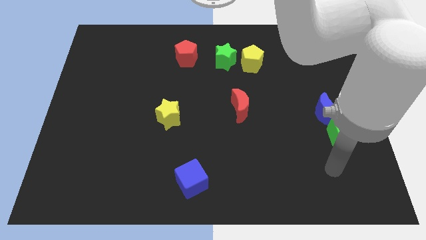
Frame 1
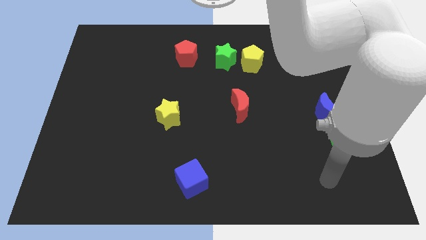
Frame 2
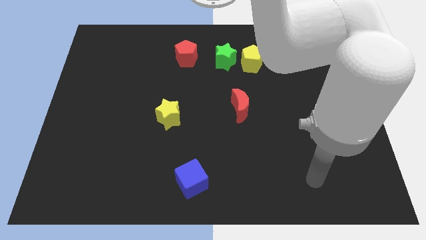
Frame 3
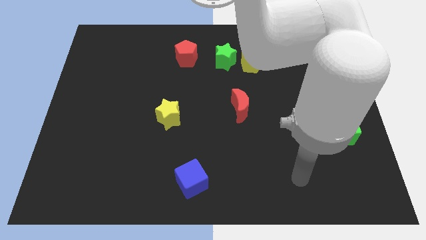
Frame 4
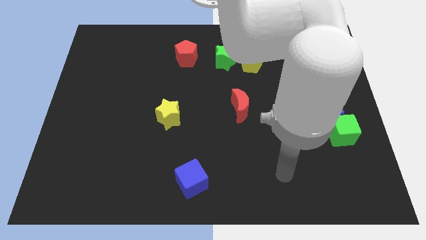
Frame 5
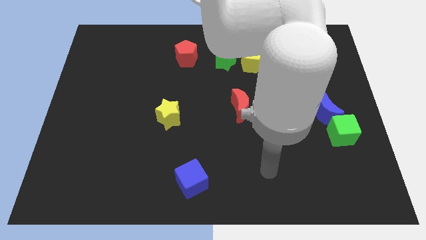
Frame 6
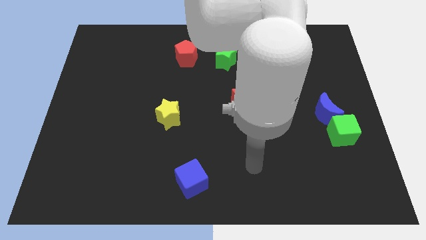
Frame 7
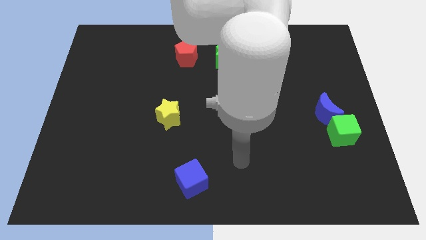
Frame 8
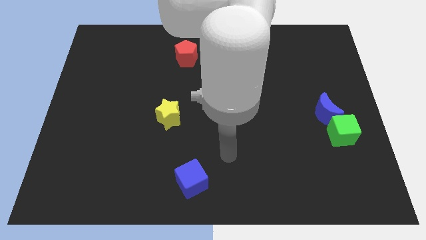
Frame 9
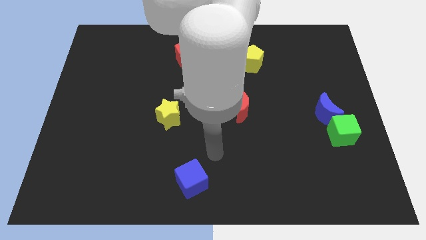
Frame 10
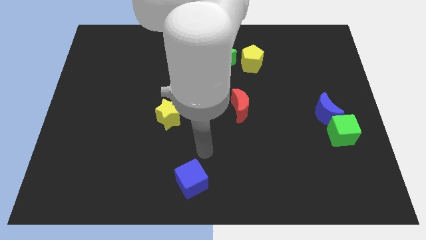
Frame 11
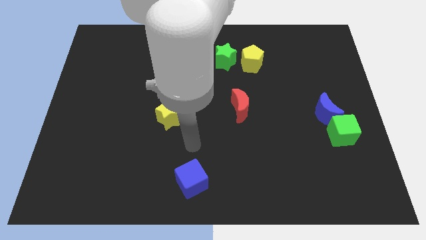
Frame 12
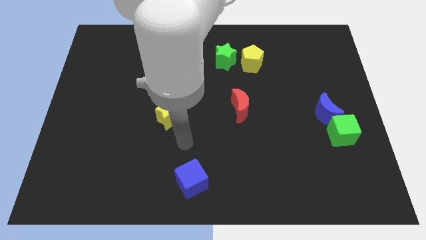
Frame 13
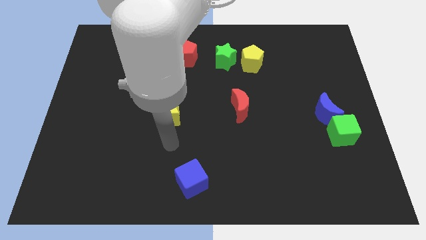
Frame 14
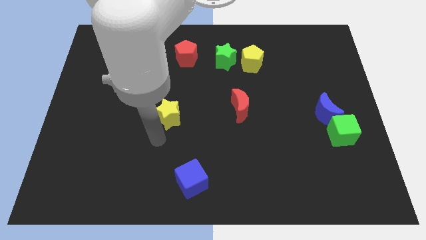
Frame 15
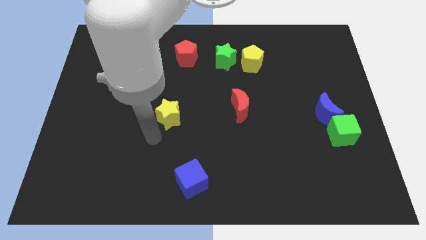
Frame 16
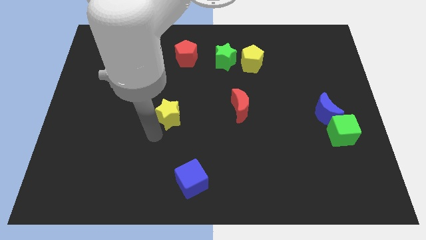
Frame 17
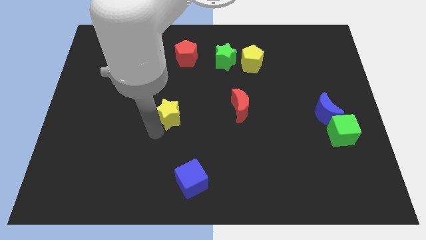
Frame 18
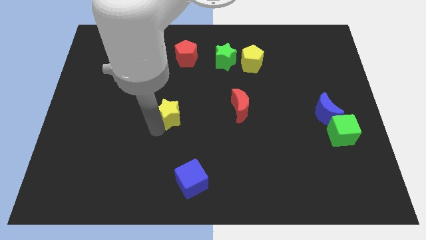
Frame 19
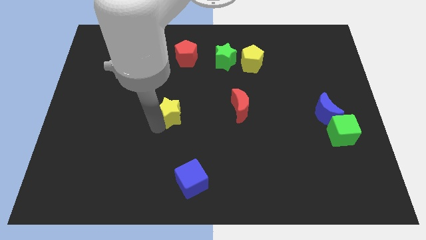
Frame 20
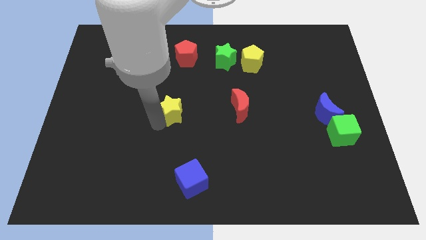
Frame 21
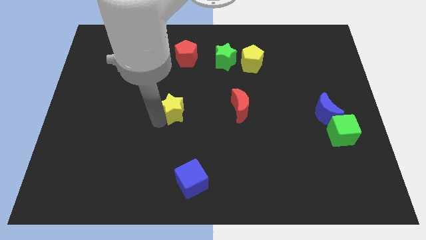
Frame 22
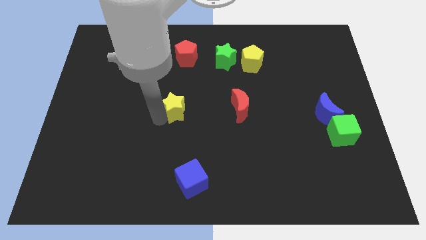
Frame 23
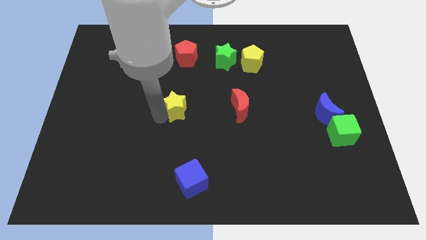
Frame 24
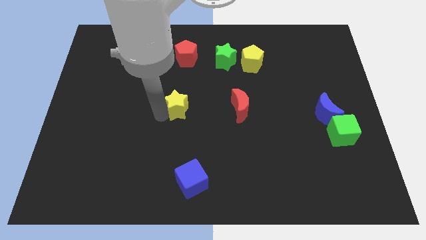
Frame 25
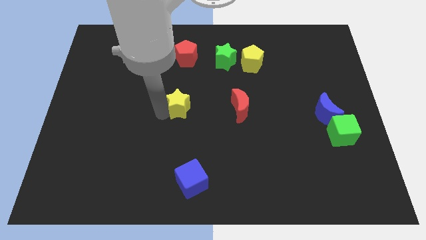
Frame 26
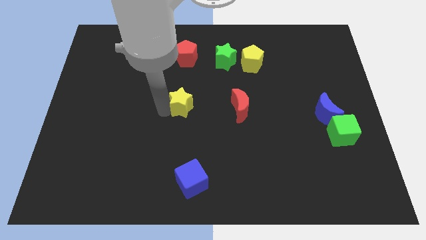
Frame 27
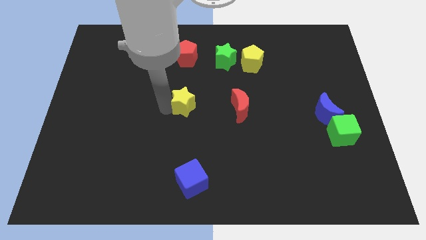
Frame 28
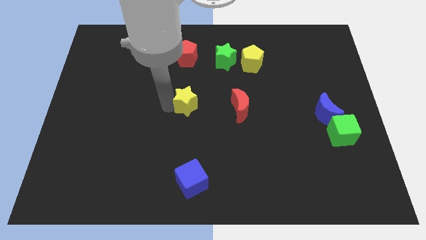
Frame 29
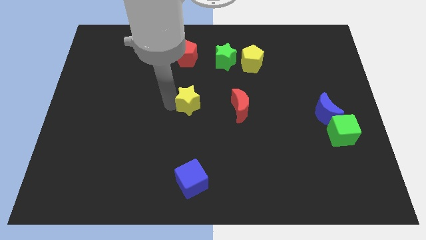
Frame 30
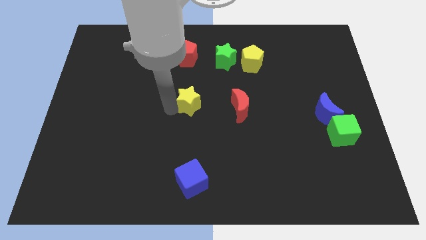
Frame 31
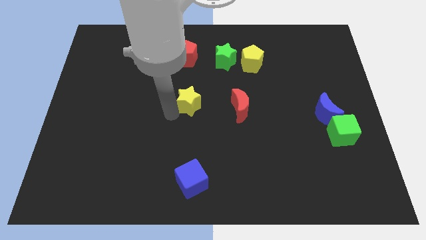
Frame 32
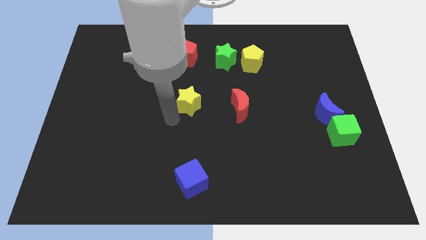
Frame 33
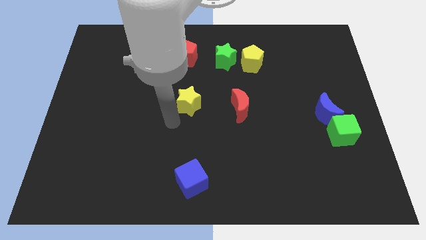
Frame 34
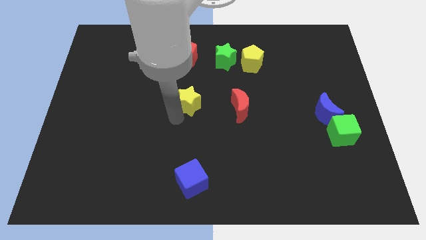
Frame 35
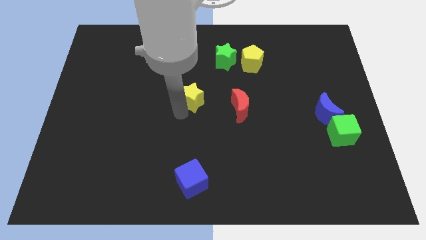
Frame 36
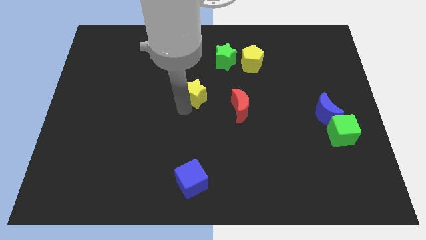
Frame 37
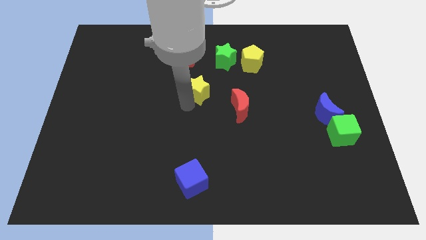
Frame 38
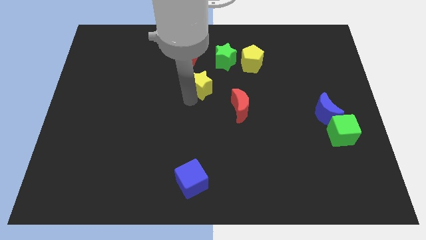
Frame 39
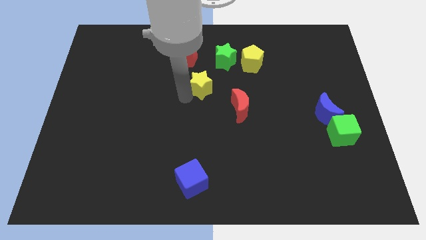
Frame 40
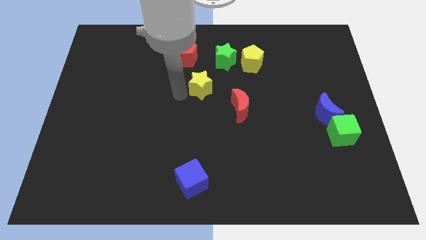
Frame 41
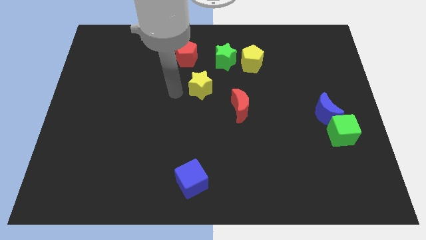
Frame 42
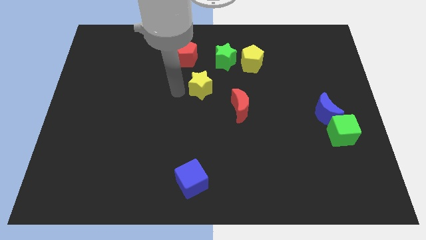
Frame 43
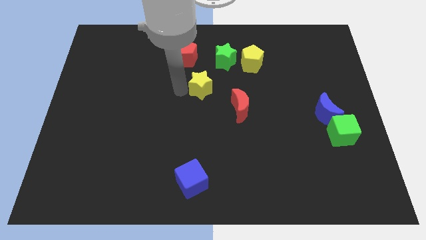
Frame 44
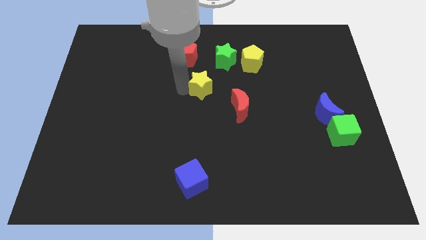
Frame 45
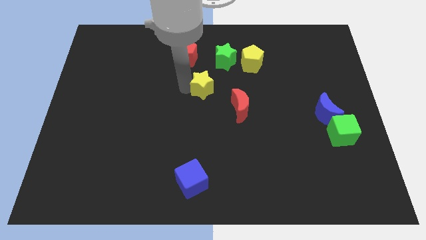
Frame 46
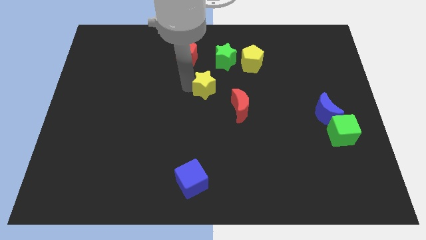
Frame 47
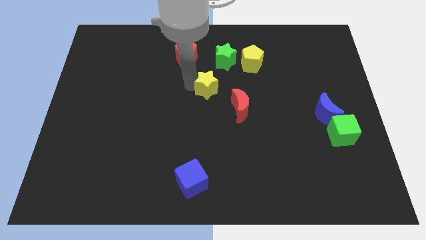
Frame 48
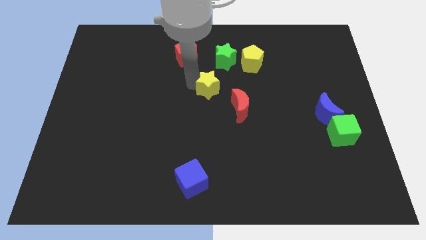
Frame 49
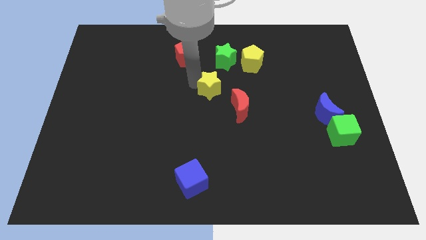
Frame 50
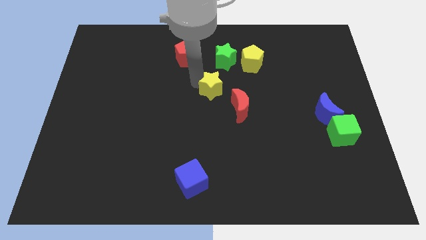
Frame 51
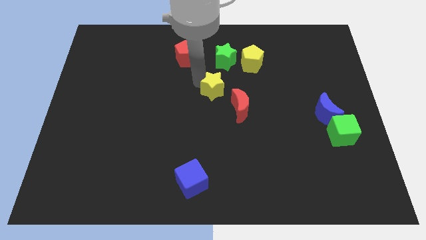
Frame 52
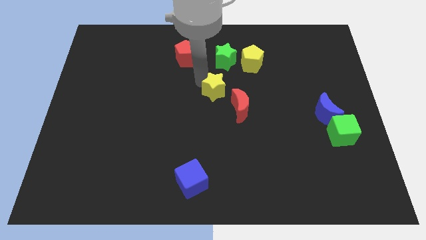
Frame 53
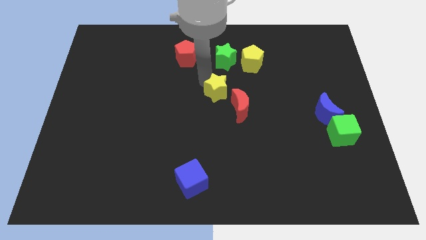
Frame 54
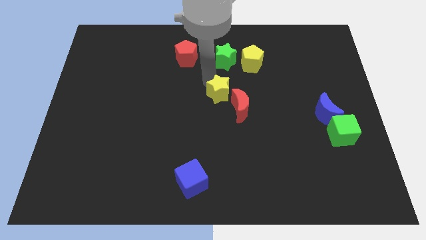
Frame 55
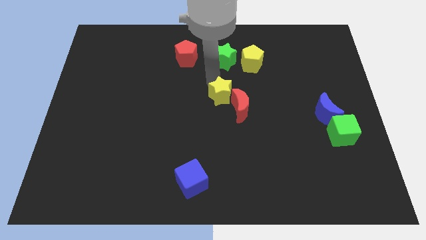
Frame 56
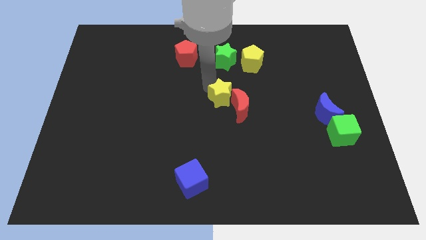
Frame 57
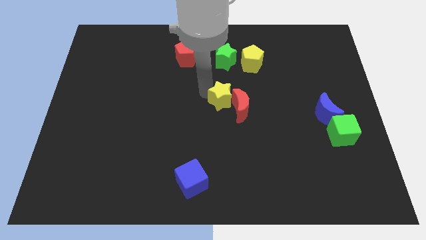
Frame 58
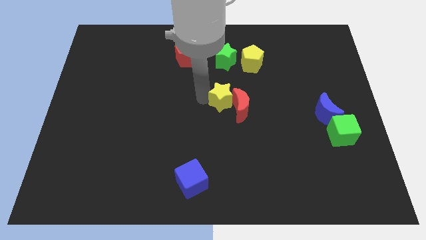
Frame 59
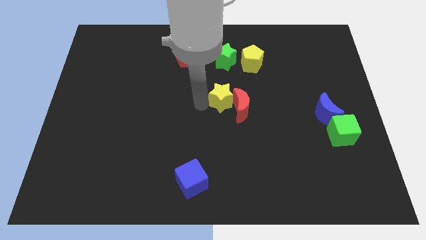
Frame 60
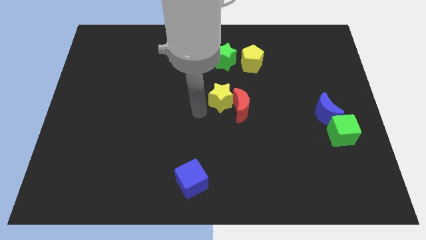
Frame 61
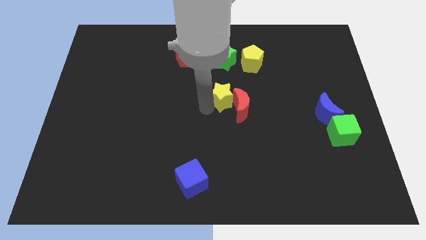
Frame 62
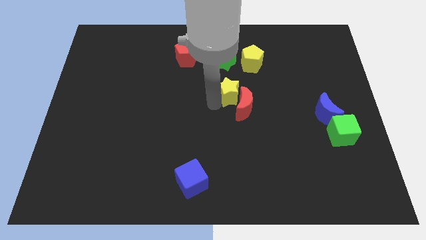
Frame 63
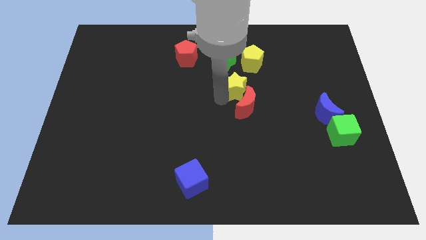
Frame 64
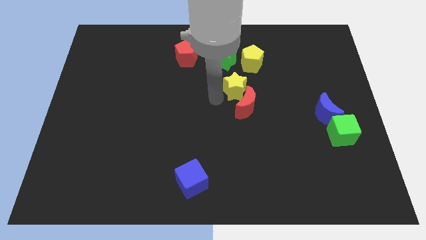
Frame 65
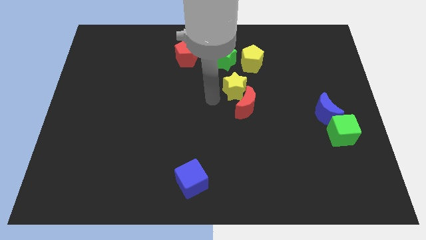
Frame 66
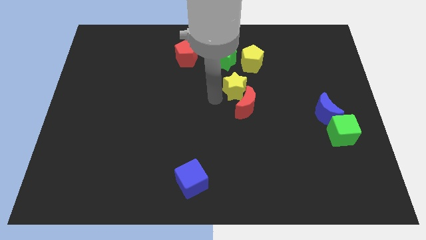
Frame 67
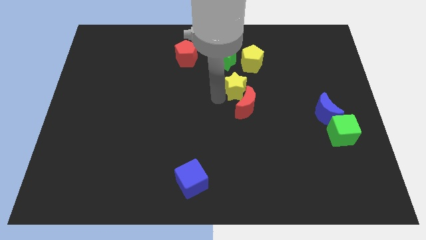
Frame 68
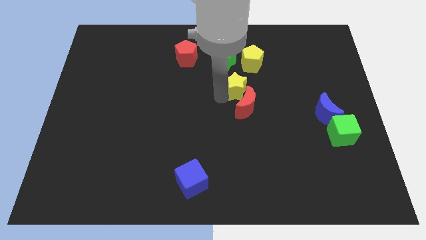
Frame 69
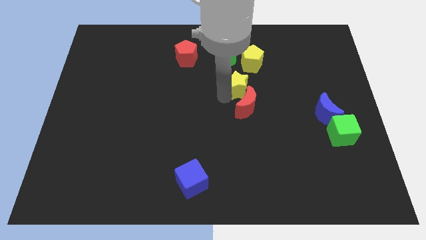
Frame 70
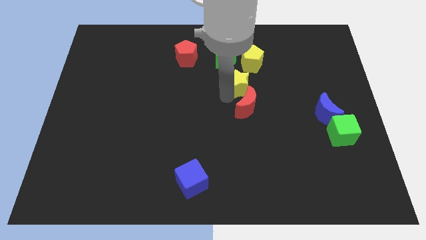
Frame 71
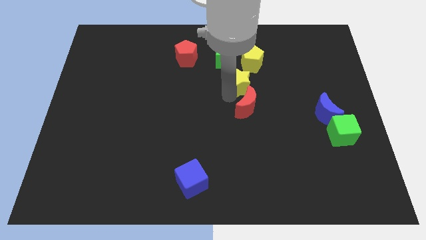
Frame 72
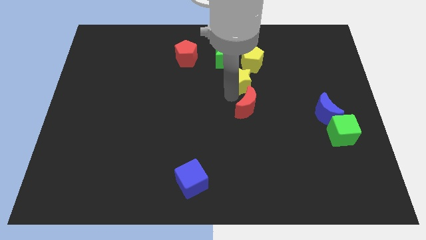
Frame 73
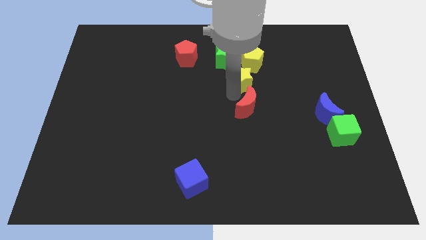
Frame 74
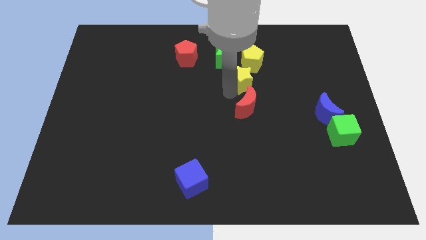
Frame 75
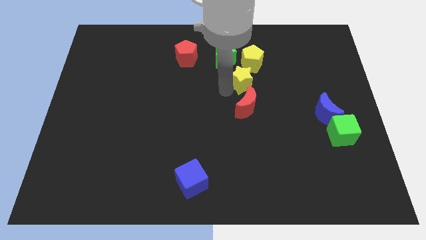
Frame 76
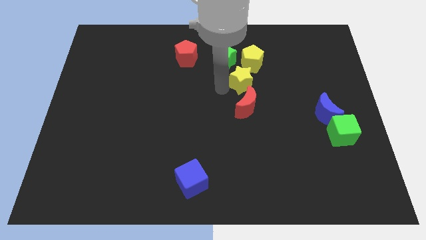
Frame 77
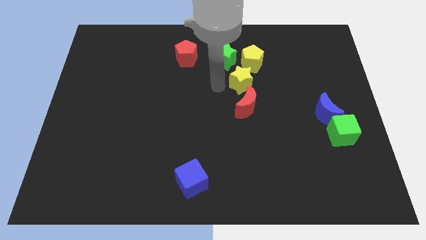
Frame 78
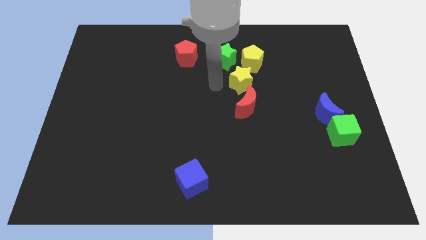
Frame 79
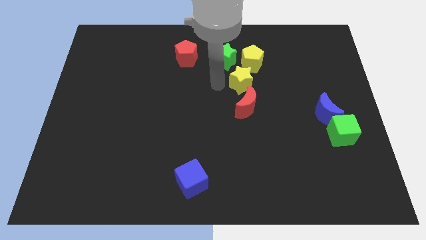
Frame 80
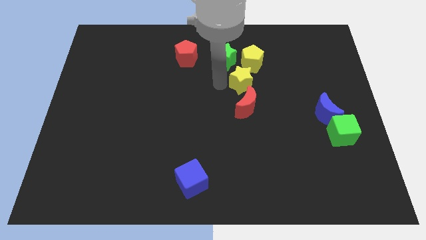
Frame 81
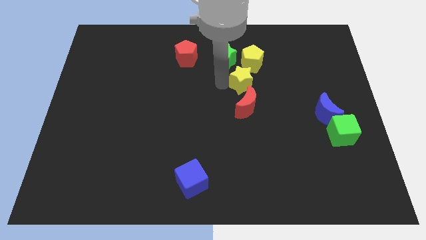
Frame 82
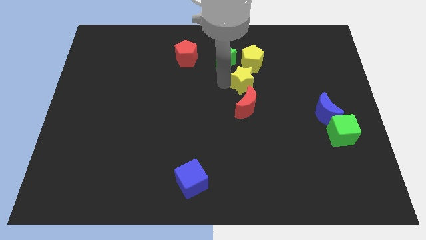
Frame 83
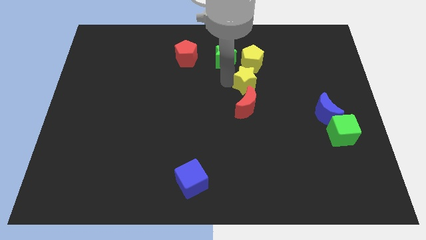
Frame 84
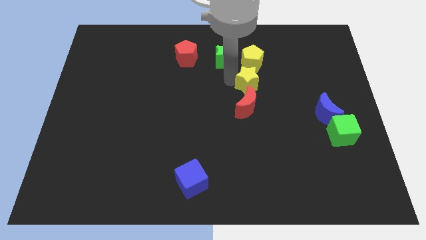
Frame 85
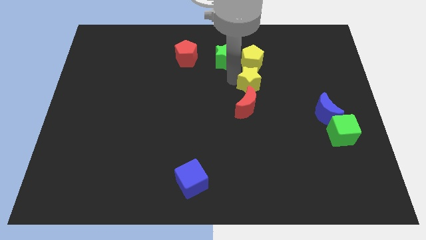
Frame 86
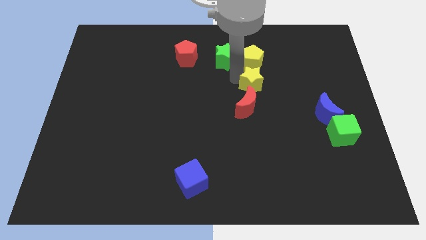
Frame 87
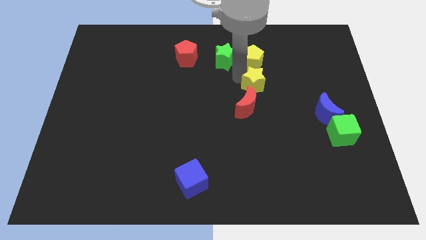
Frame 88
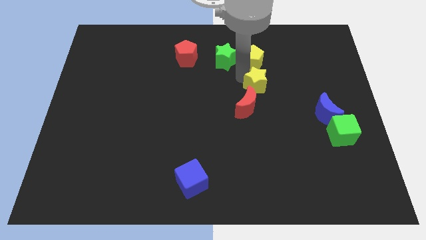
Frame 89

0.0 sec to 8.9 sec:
move the yellow star diagonally down and to the right of the yellow pentagon
